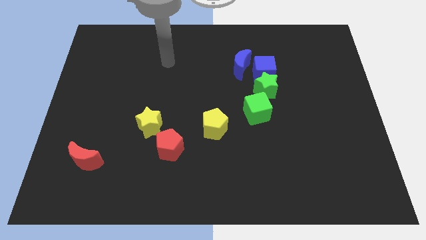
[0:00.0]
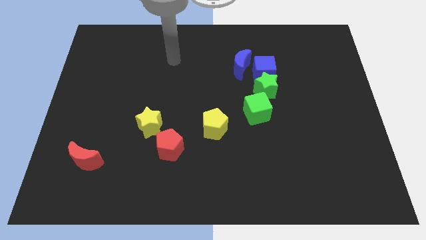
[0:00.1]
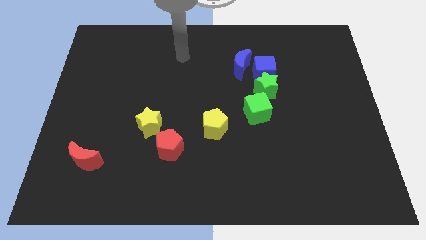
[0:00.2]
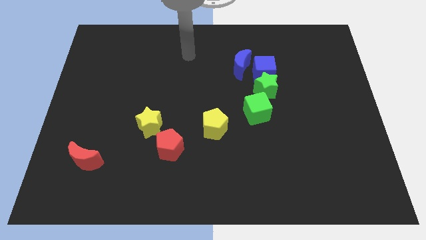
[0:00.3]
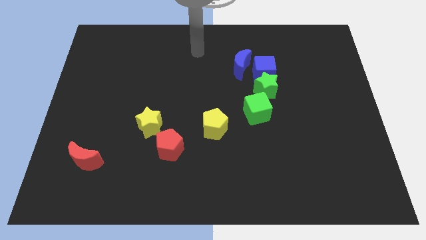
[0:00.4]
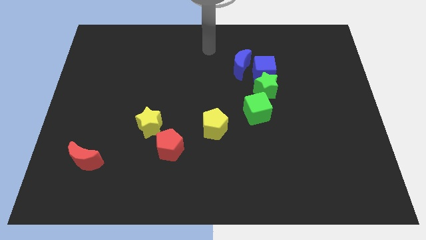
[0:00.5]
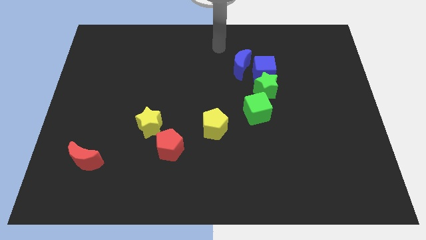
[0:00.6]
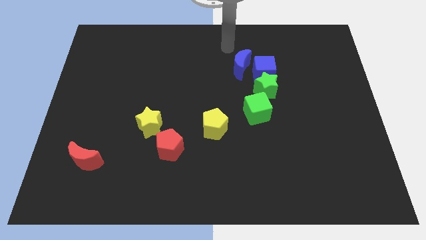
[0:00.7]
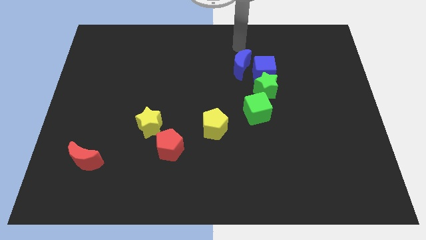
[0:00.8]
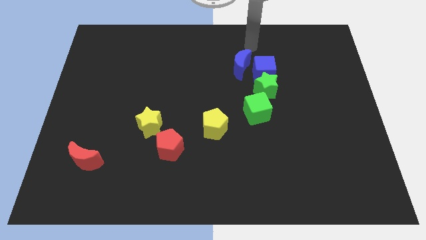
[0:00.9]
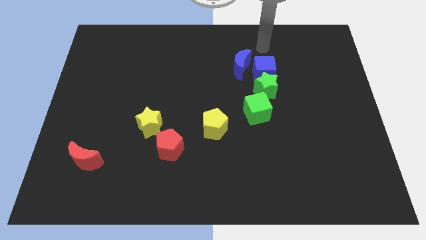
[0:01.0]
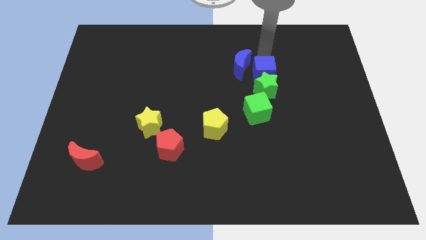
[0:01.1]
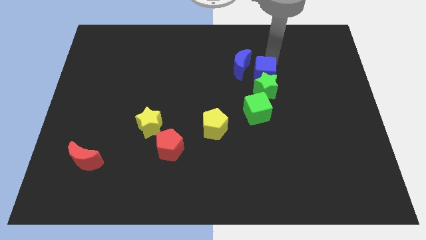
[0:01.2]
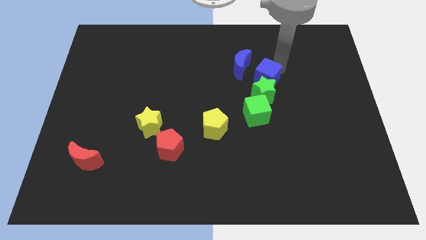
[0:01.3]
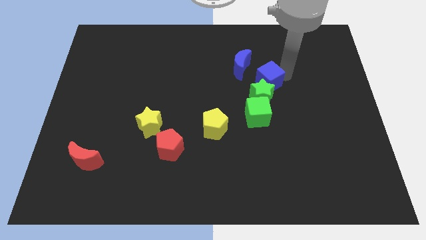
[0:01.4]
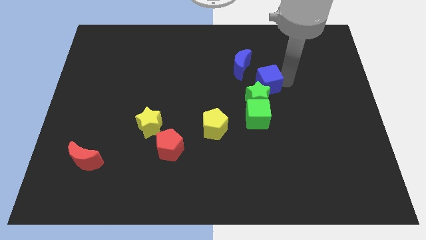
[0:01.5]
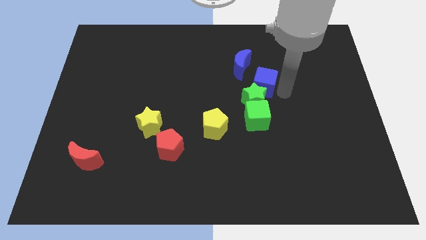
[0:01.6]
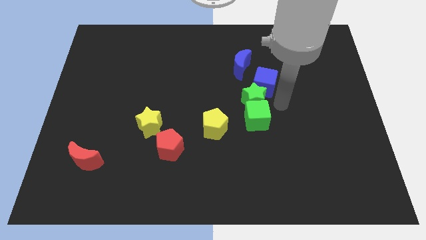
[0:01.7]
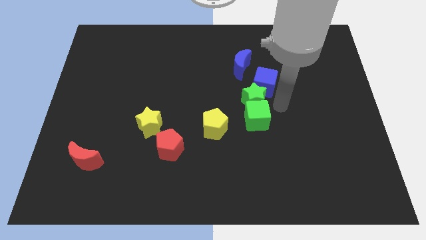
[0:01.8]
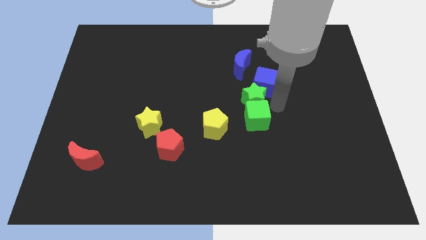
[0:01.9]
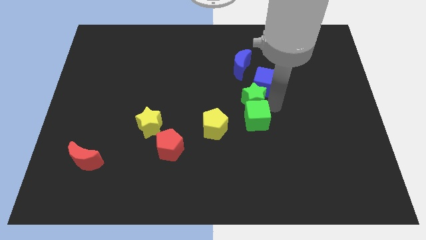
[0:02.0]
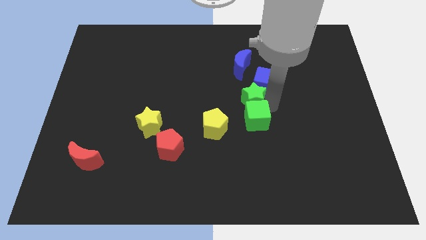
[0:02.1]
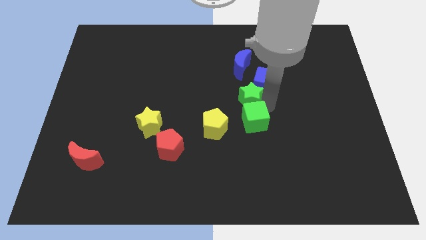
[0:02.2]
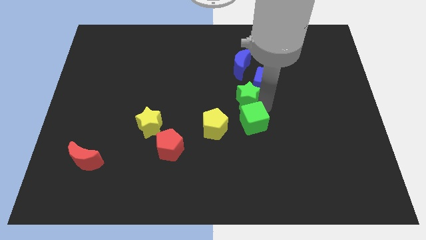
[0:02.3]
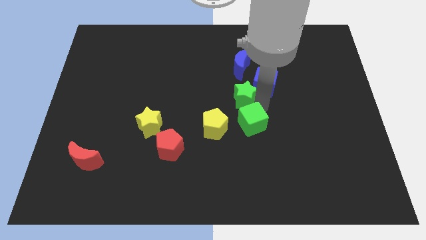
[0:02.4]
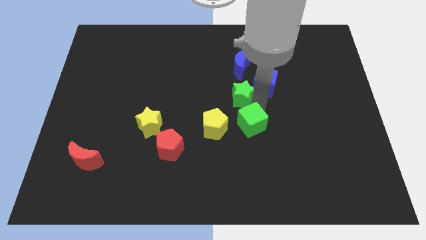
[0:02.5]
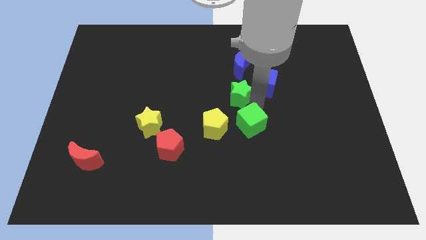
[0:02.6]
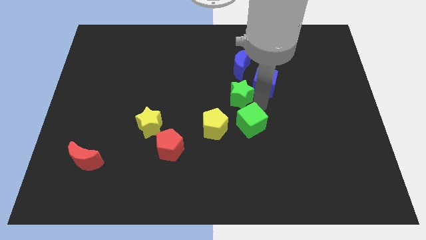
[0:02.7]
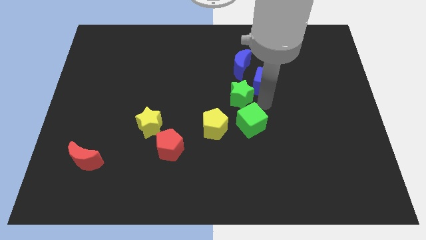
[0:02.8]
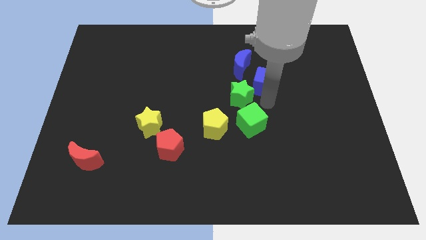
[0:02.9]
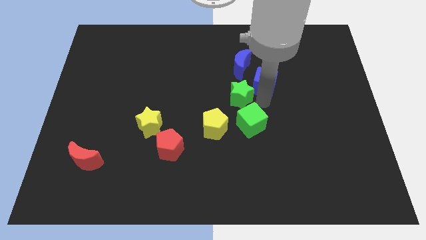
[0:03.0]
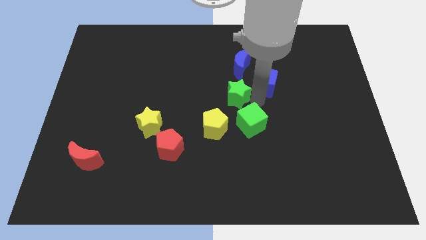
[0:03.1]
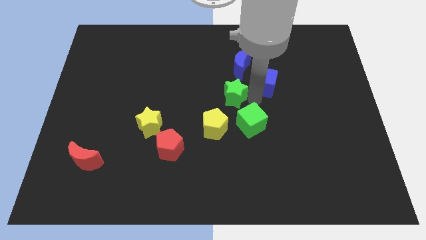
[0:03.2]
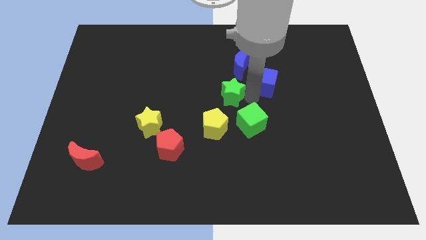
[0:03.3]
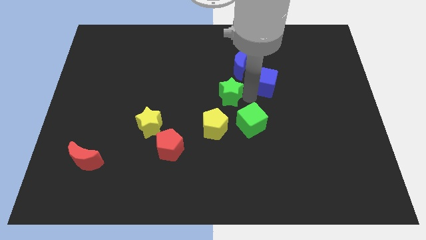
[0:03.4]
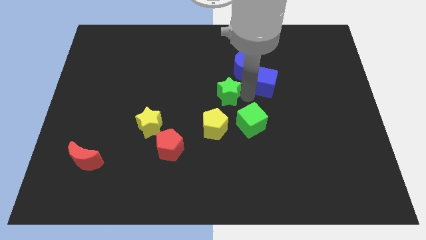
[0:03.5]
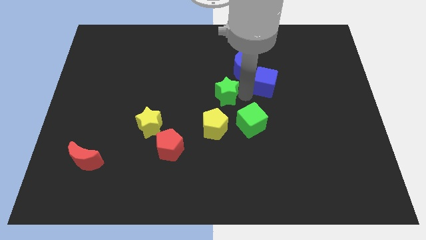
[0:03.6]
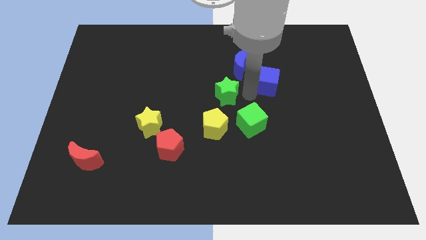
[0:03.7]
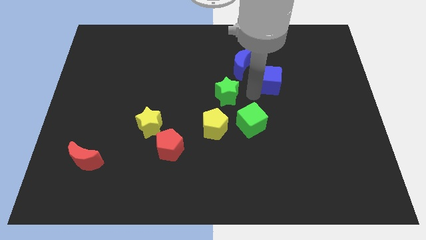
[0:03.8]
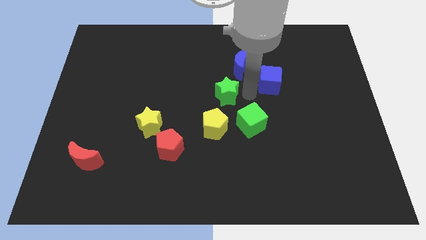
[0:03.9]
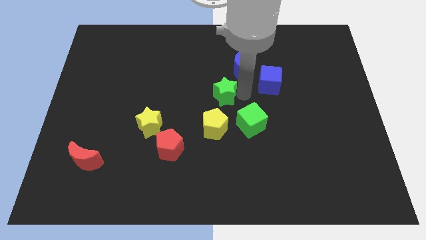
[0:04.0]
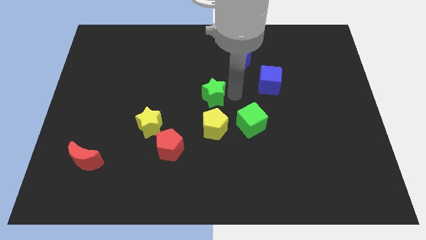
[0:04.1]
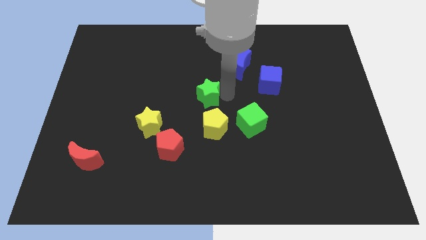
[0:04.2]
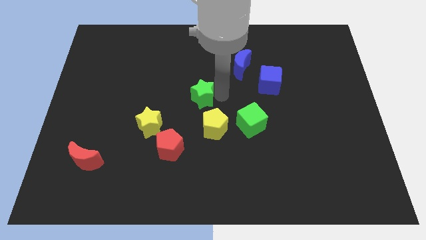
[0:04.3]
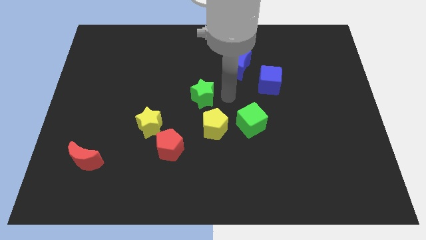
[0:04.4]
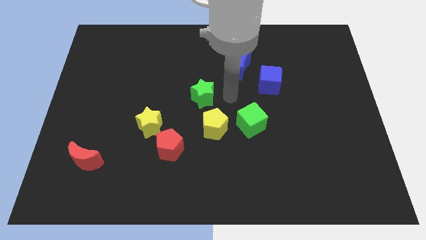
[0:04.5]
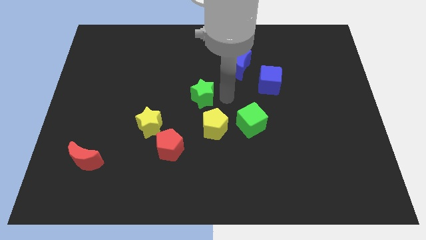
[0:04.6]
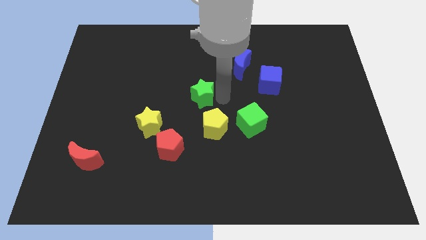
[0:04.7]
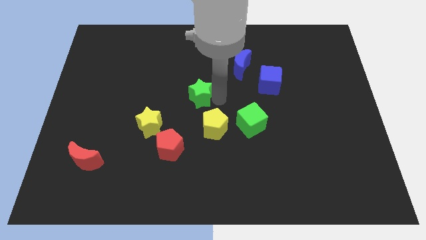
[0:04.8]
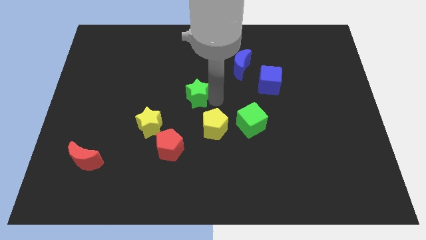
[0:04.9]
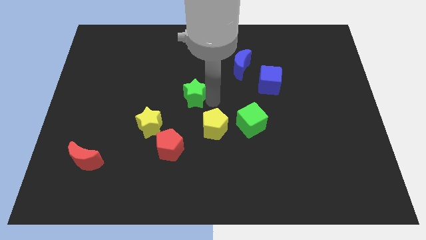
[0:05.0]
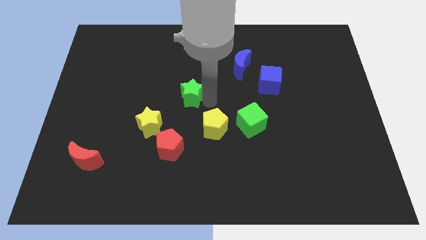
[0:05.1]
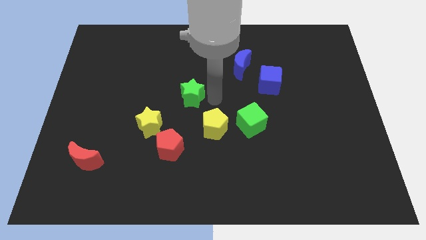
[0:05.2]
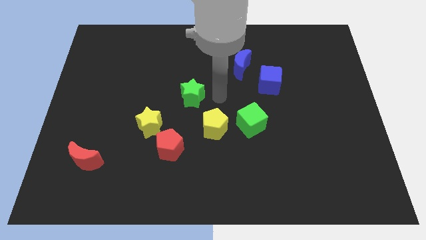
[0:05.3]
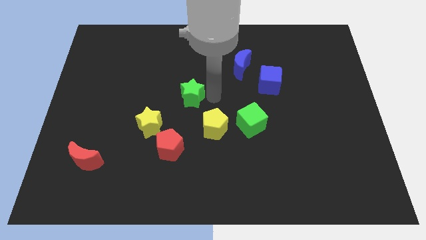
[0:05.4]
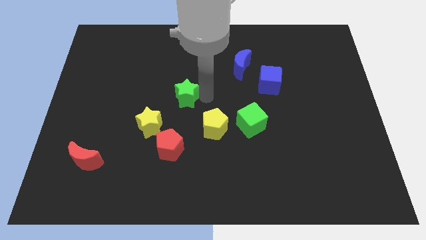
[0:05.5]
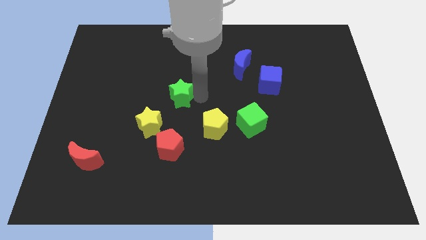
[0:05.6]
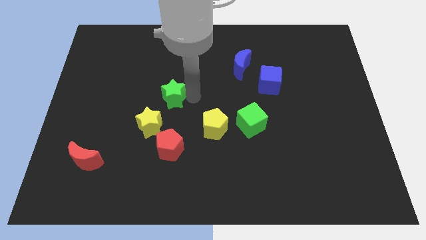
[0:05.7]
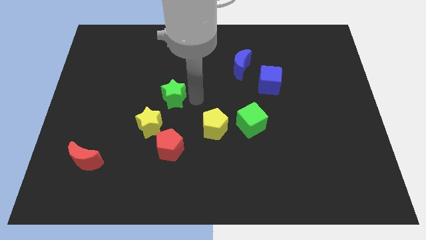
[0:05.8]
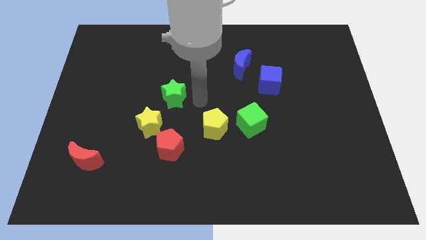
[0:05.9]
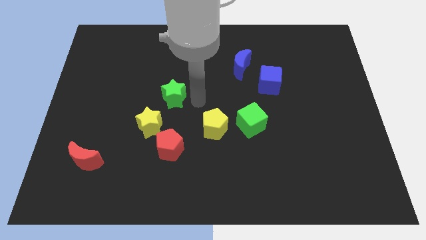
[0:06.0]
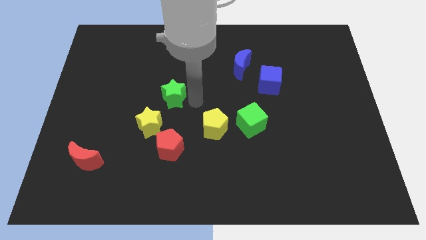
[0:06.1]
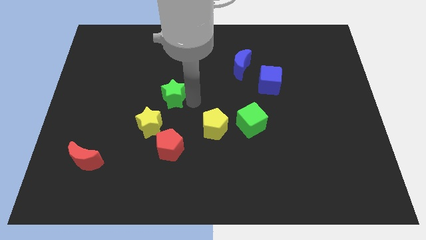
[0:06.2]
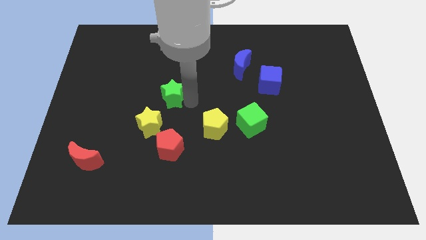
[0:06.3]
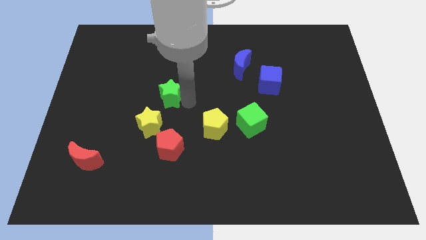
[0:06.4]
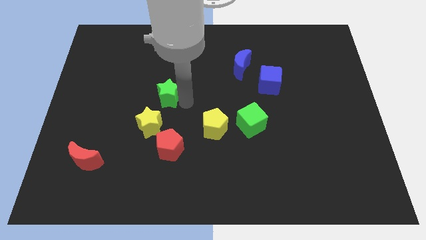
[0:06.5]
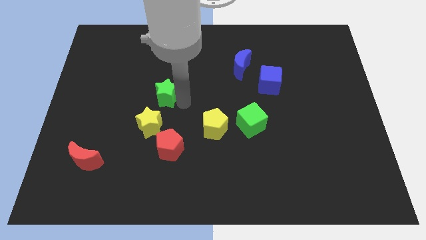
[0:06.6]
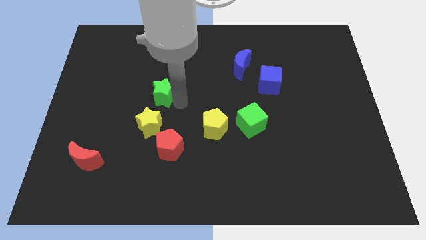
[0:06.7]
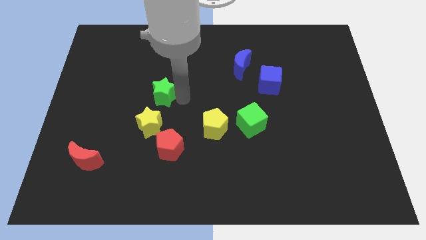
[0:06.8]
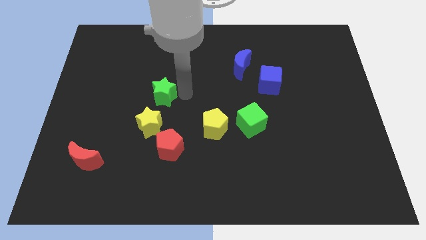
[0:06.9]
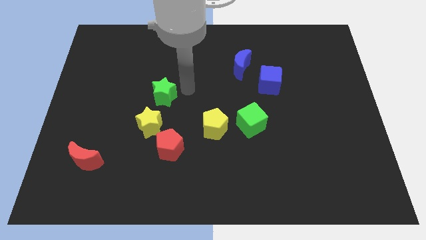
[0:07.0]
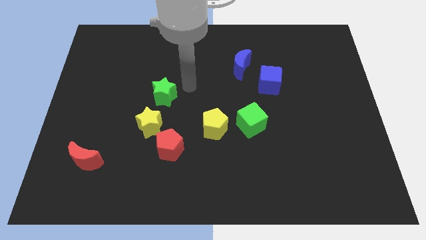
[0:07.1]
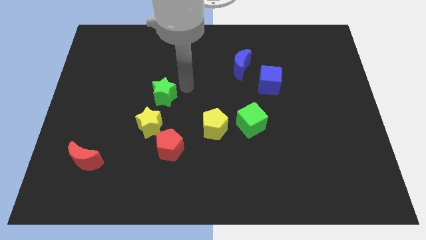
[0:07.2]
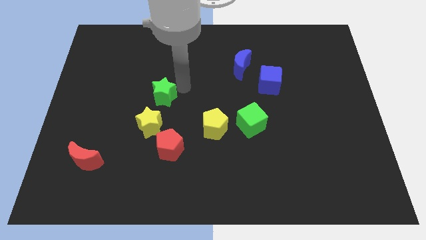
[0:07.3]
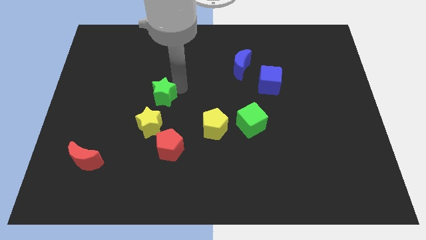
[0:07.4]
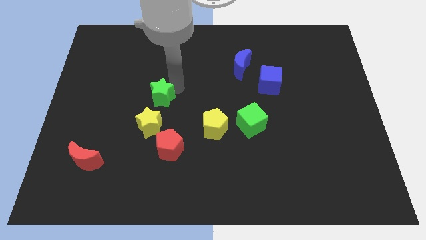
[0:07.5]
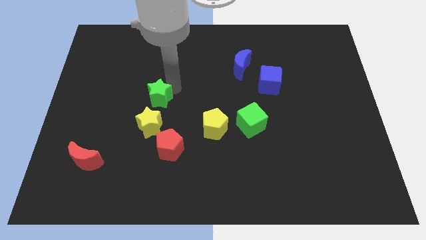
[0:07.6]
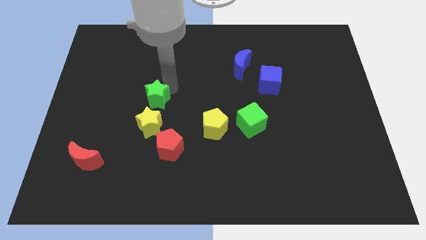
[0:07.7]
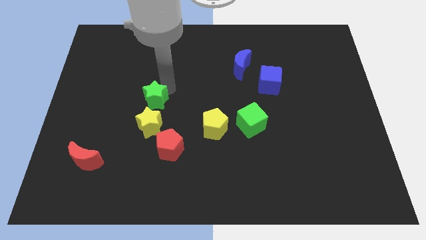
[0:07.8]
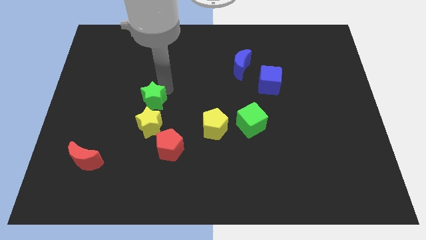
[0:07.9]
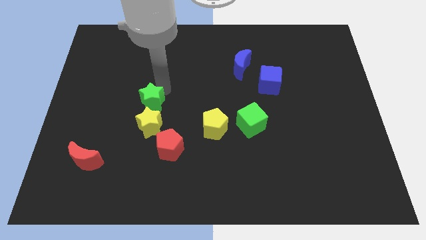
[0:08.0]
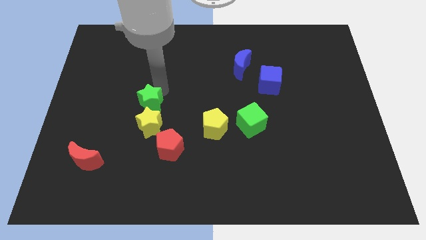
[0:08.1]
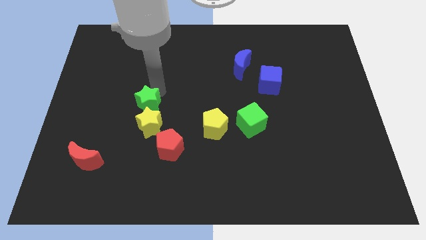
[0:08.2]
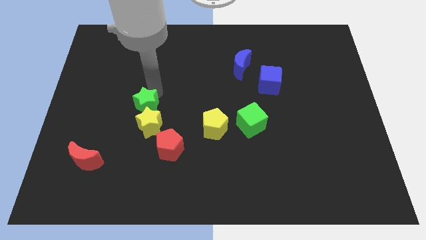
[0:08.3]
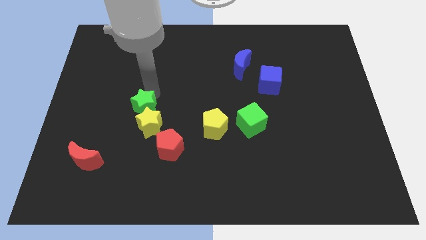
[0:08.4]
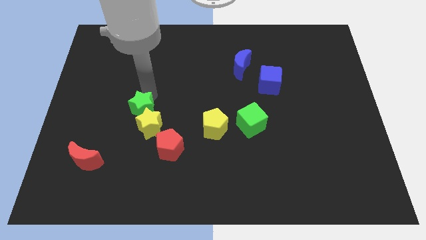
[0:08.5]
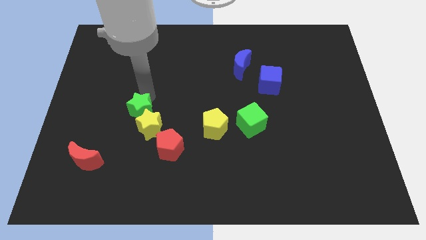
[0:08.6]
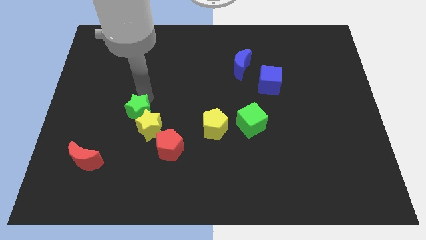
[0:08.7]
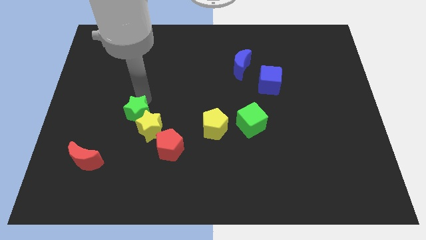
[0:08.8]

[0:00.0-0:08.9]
move the green star just left of the yellow star
